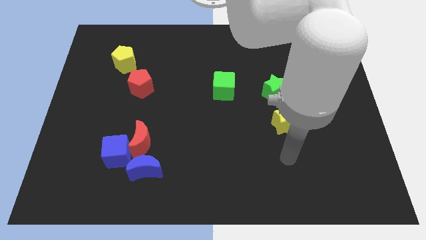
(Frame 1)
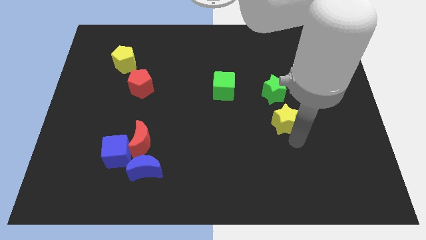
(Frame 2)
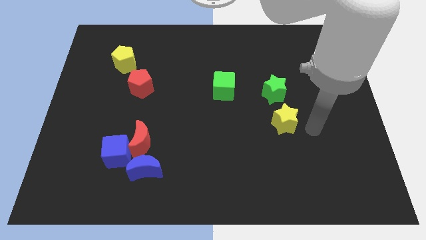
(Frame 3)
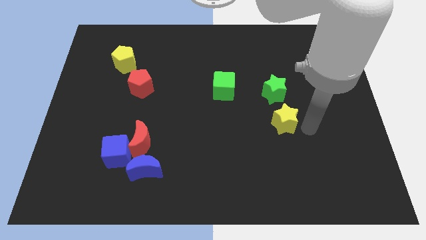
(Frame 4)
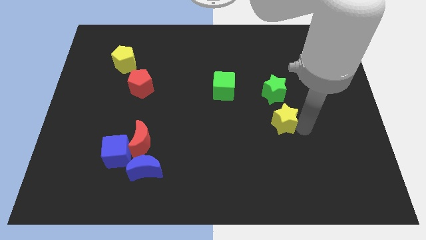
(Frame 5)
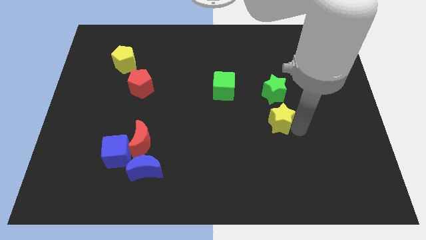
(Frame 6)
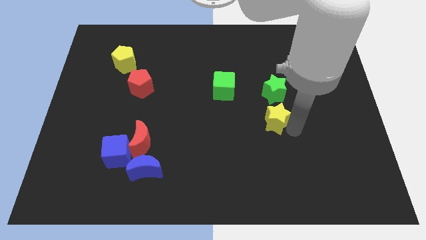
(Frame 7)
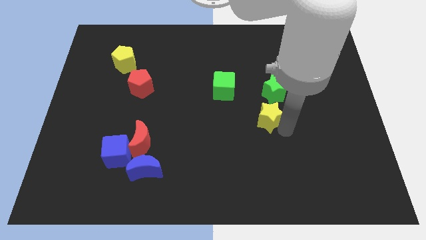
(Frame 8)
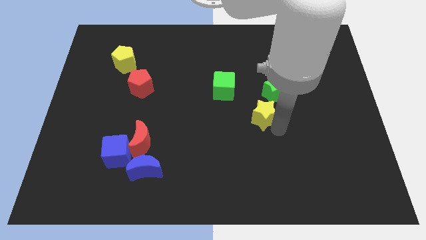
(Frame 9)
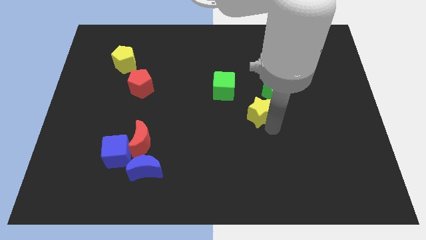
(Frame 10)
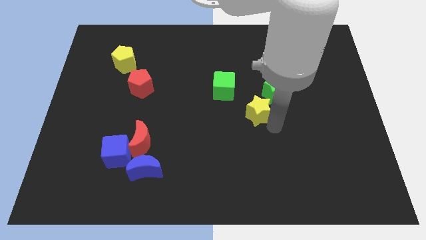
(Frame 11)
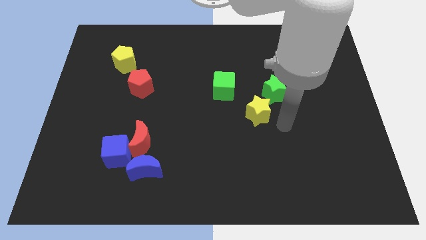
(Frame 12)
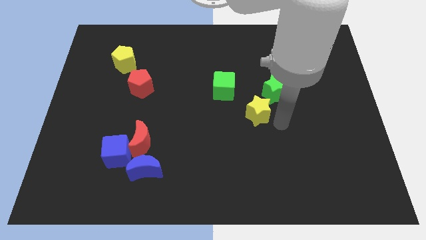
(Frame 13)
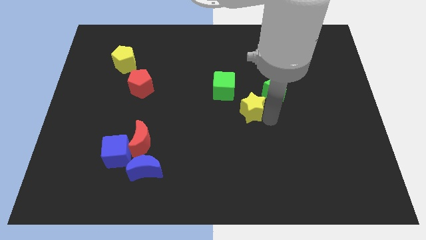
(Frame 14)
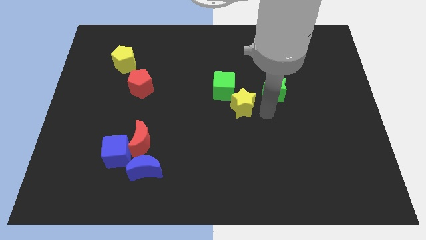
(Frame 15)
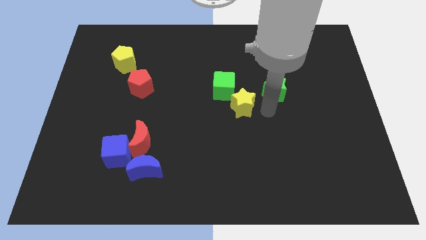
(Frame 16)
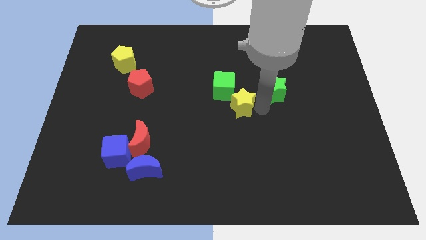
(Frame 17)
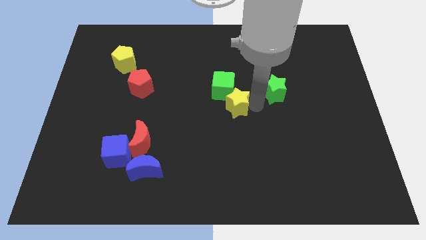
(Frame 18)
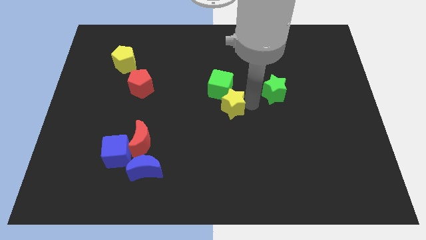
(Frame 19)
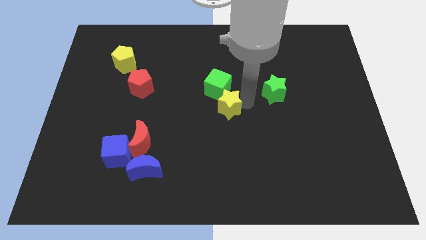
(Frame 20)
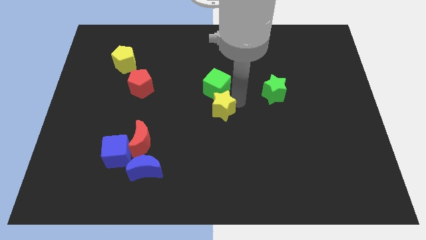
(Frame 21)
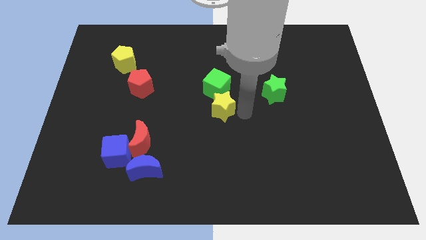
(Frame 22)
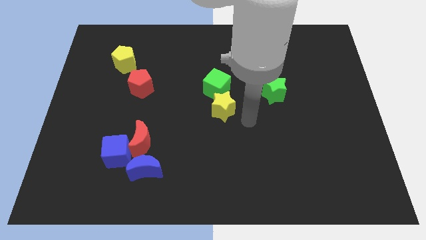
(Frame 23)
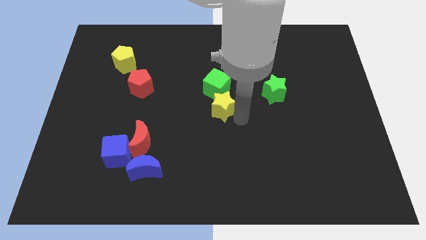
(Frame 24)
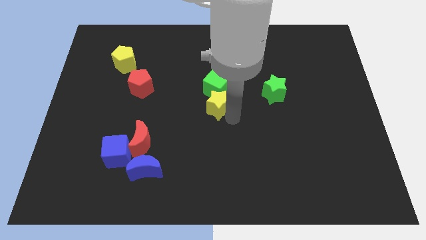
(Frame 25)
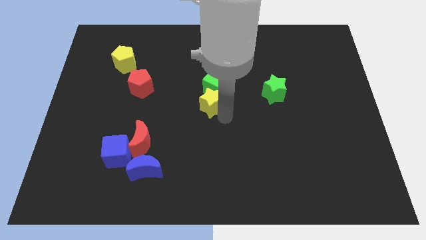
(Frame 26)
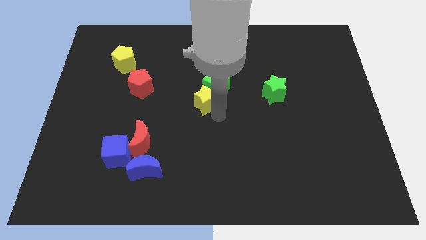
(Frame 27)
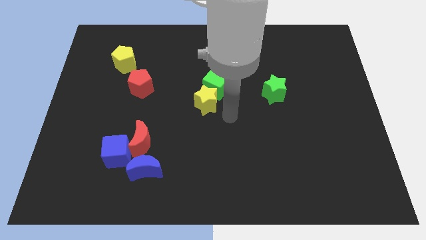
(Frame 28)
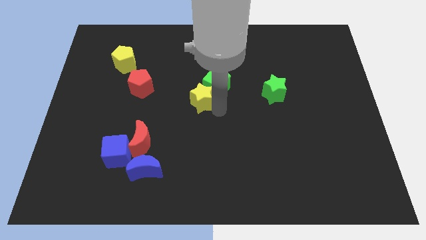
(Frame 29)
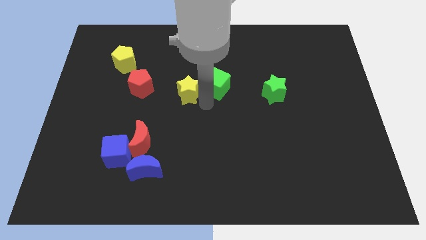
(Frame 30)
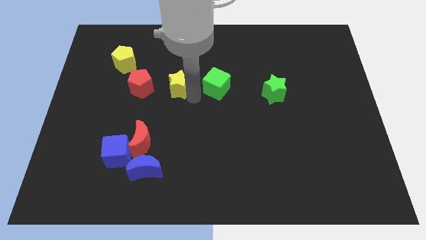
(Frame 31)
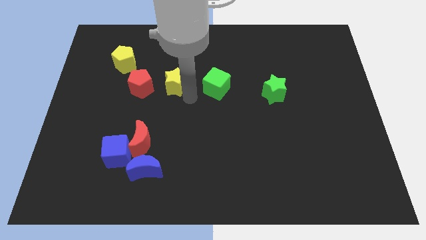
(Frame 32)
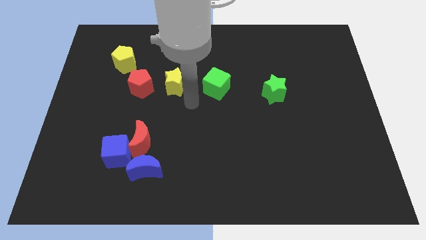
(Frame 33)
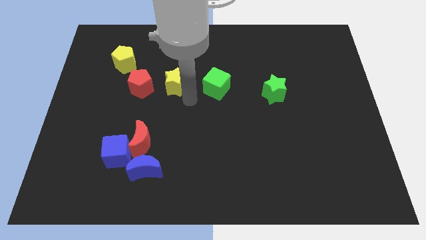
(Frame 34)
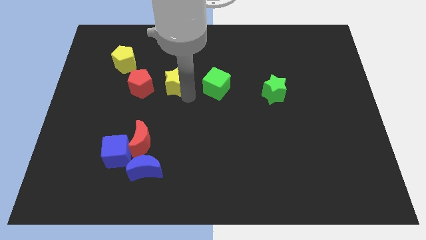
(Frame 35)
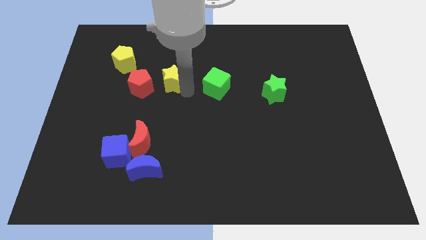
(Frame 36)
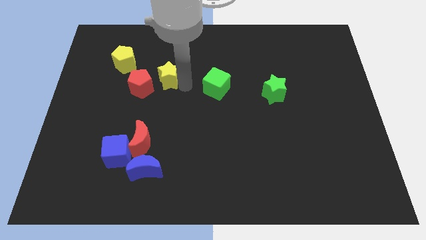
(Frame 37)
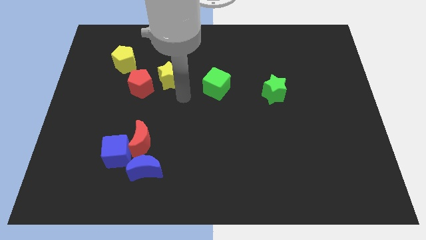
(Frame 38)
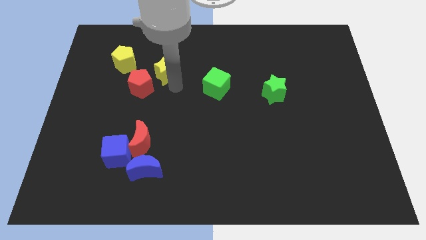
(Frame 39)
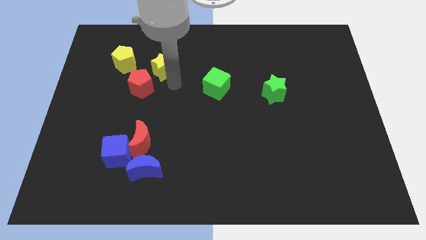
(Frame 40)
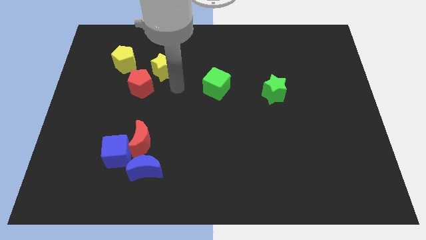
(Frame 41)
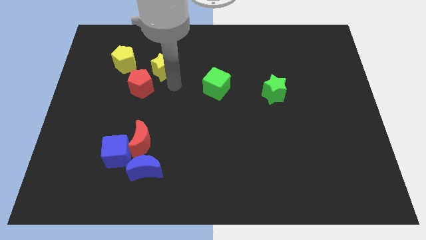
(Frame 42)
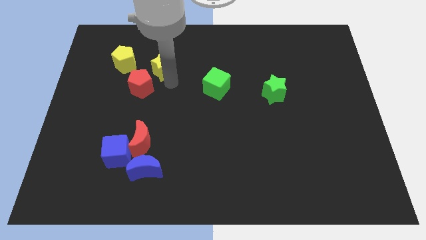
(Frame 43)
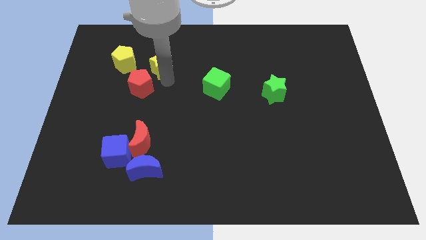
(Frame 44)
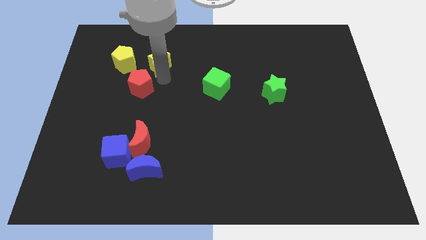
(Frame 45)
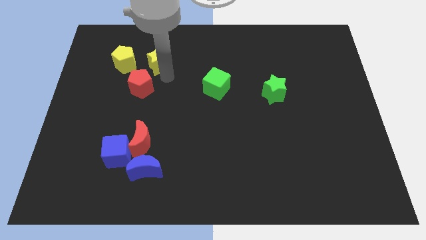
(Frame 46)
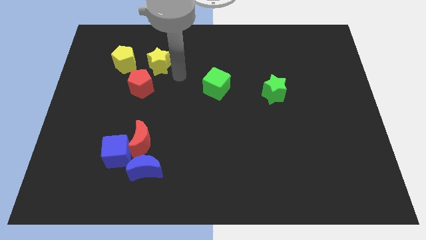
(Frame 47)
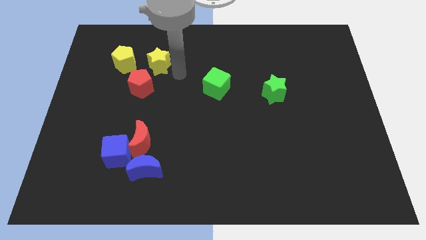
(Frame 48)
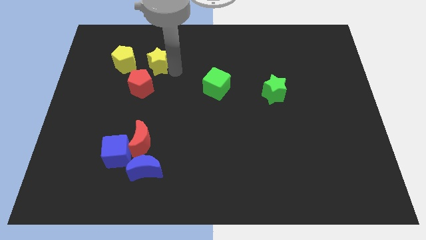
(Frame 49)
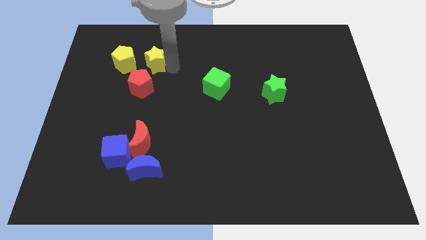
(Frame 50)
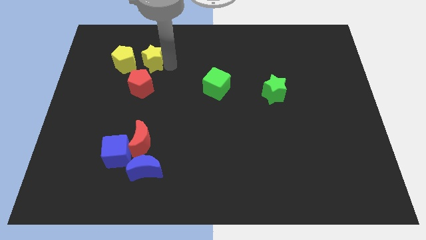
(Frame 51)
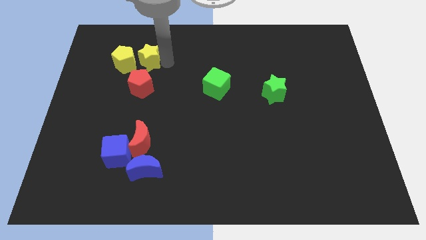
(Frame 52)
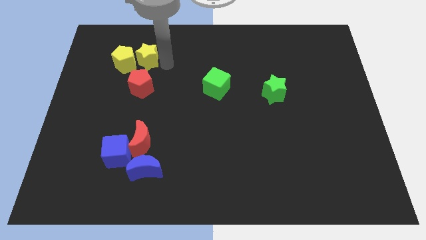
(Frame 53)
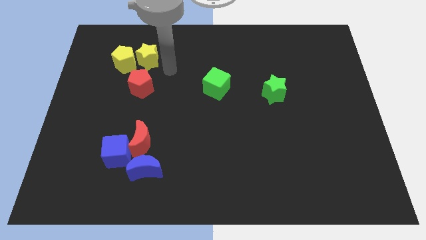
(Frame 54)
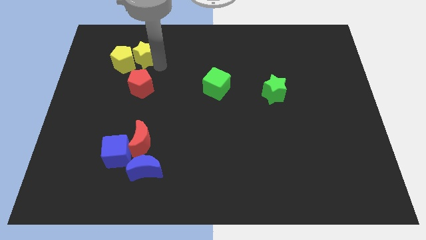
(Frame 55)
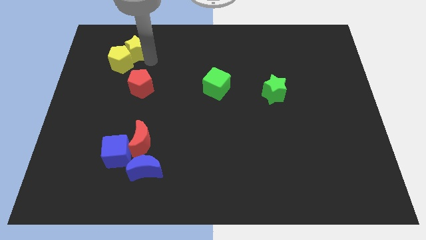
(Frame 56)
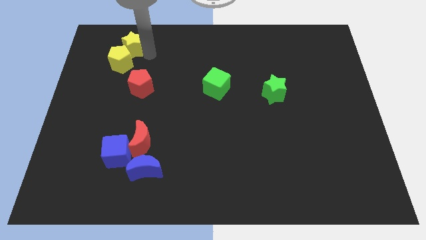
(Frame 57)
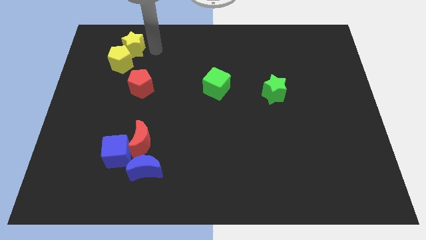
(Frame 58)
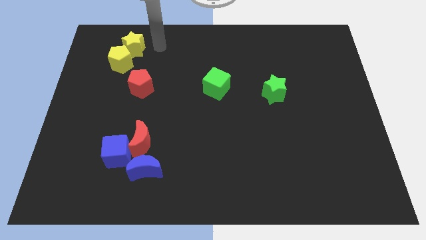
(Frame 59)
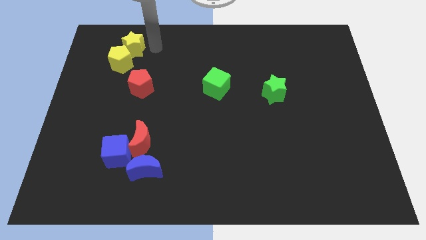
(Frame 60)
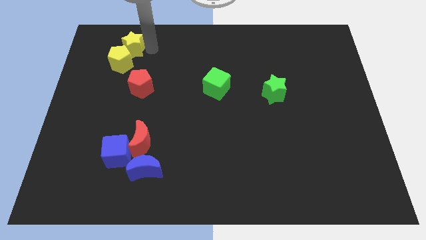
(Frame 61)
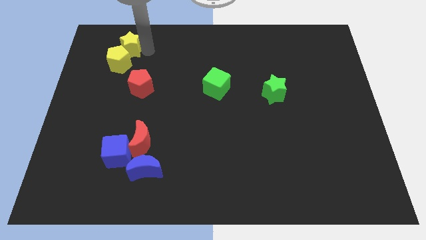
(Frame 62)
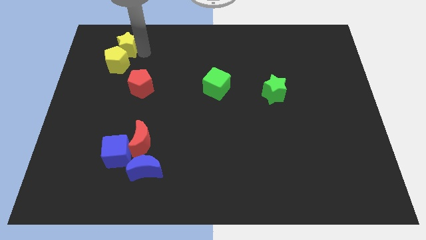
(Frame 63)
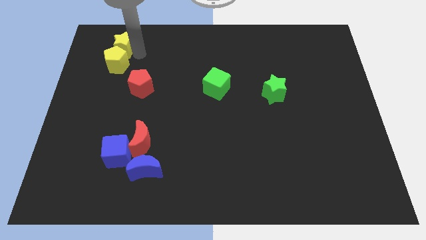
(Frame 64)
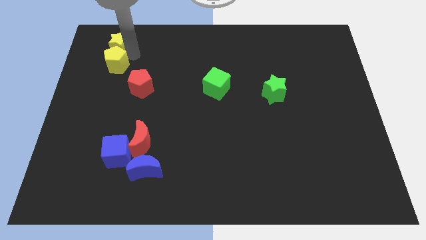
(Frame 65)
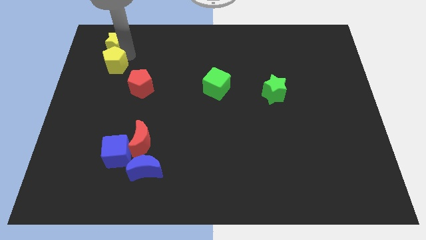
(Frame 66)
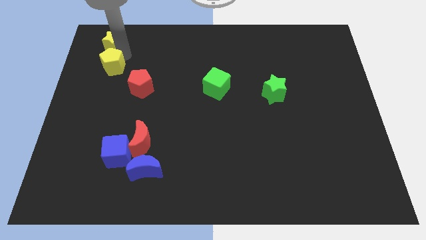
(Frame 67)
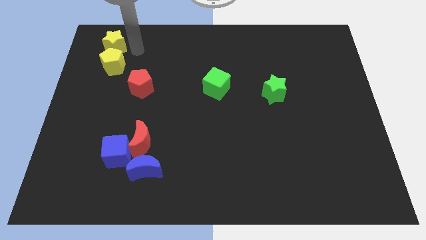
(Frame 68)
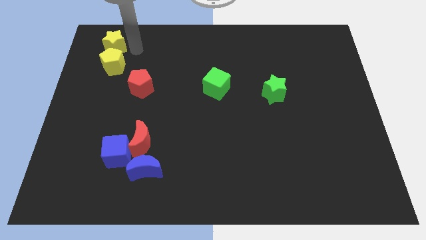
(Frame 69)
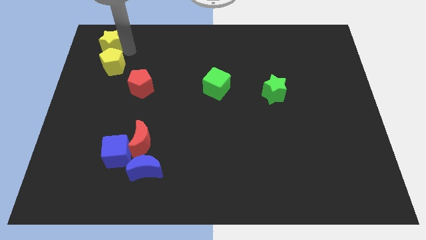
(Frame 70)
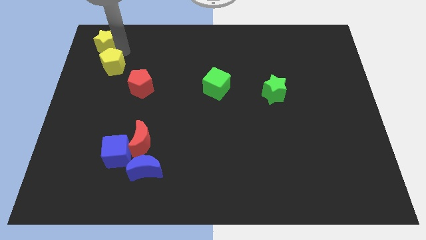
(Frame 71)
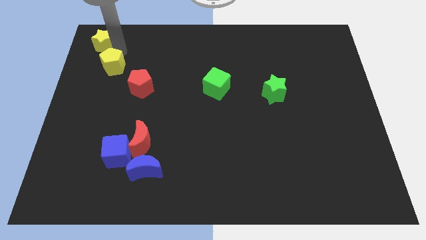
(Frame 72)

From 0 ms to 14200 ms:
slide the yellow star to the top left corner
